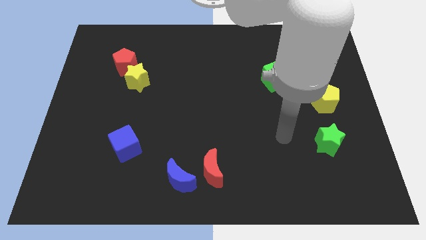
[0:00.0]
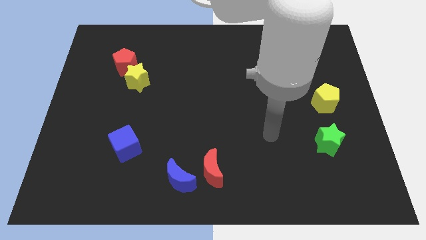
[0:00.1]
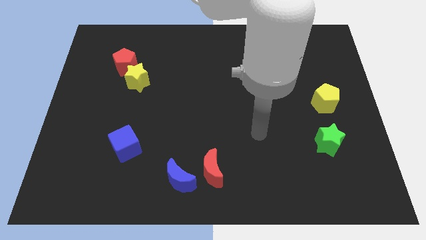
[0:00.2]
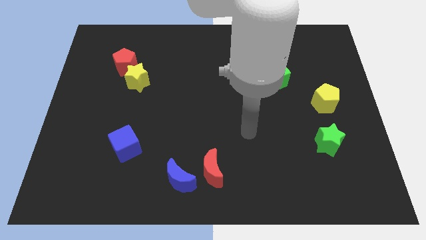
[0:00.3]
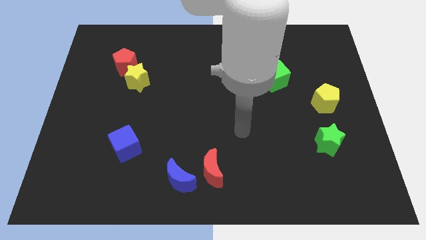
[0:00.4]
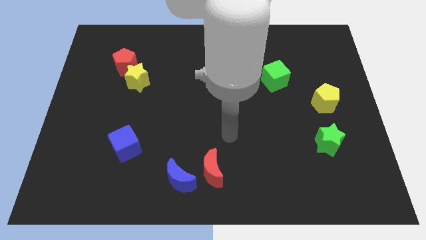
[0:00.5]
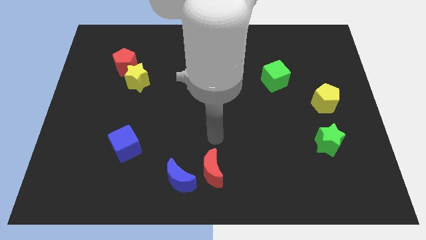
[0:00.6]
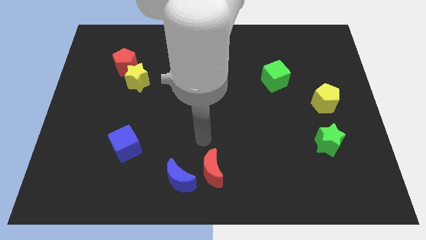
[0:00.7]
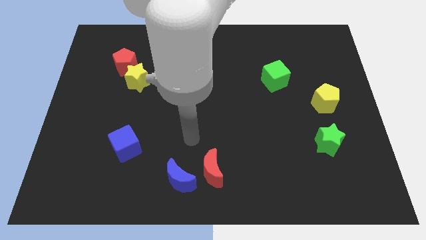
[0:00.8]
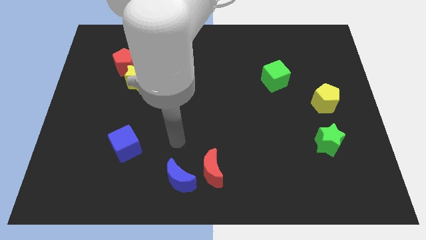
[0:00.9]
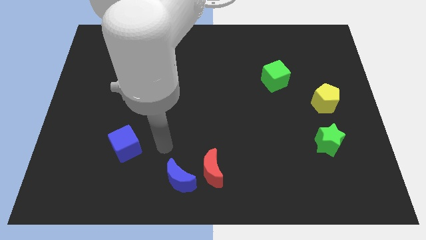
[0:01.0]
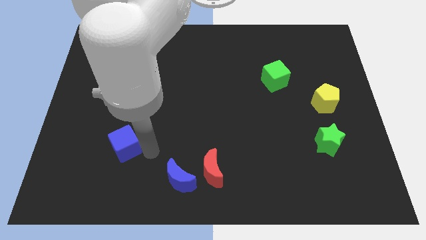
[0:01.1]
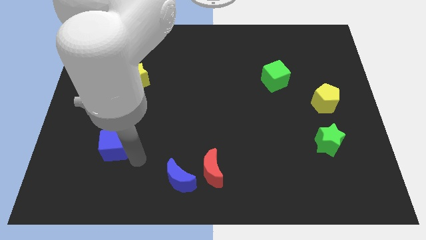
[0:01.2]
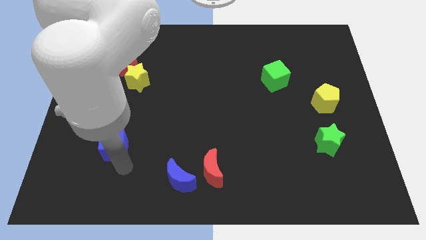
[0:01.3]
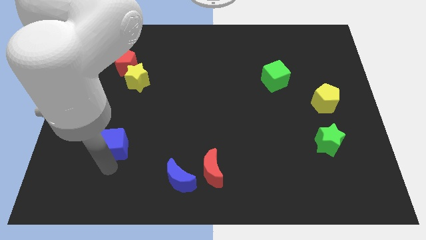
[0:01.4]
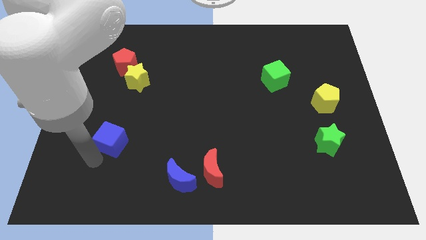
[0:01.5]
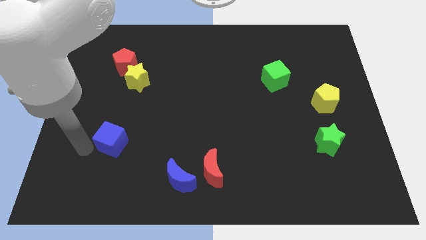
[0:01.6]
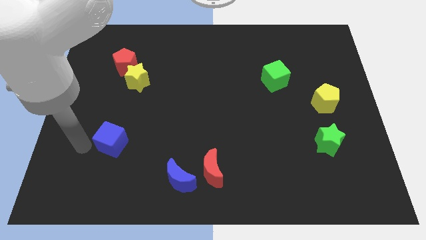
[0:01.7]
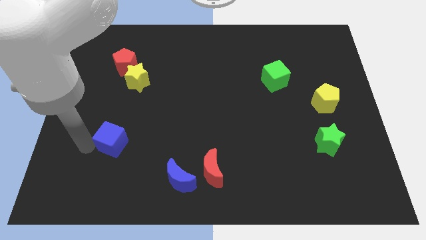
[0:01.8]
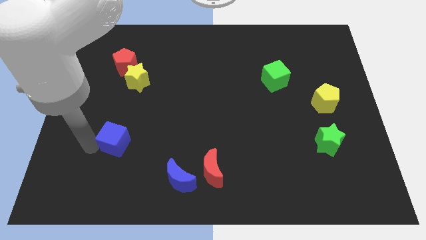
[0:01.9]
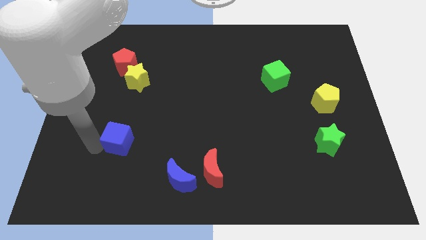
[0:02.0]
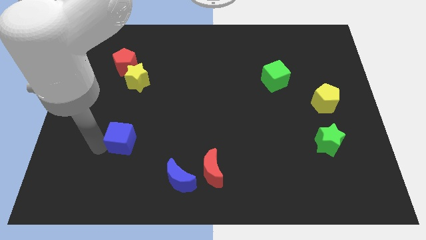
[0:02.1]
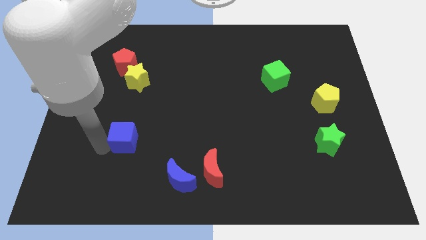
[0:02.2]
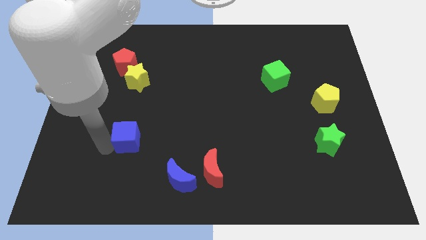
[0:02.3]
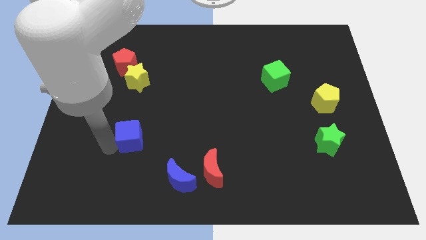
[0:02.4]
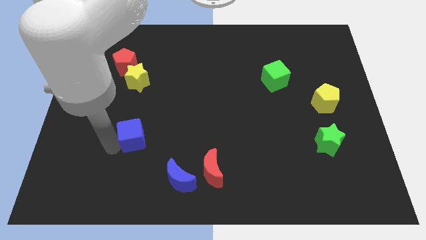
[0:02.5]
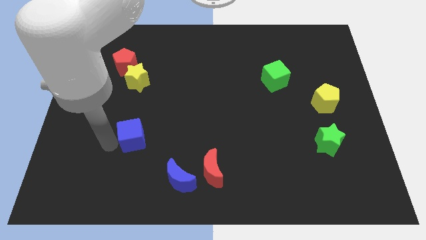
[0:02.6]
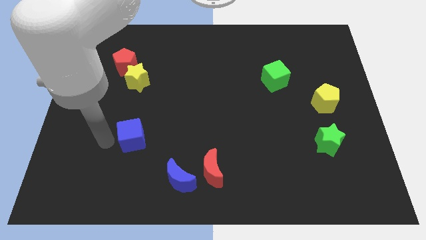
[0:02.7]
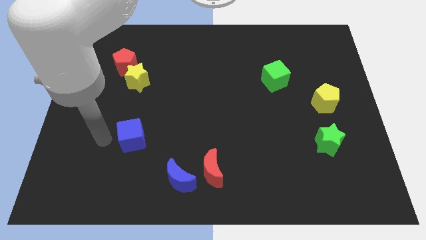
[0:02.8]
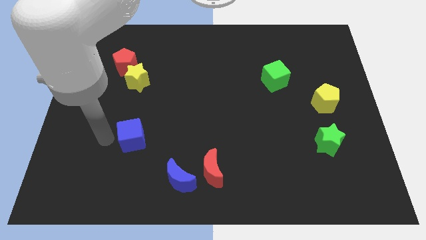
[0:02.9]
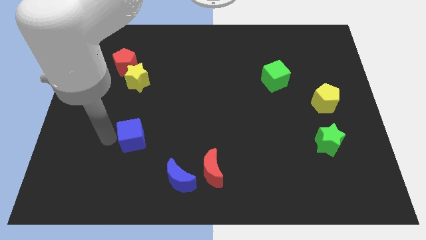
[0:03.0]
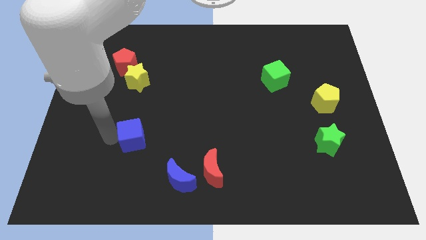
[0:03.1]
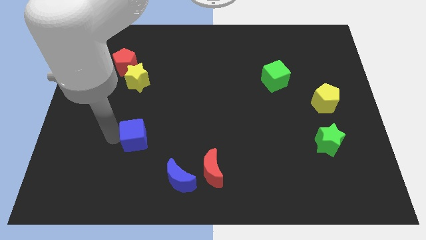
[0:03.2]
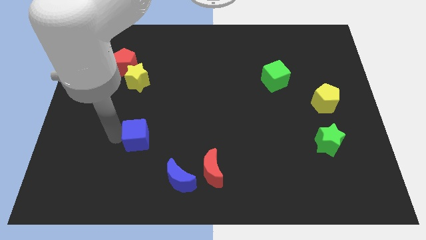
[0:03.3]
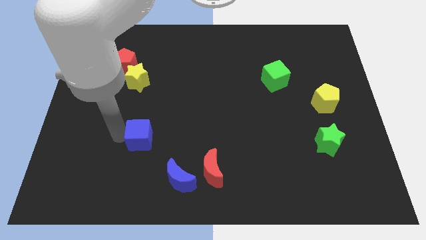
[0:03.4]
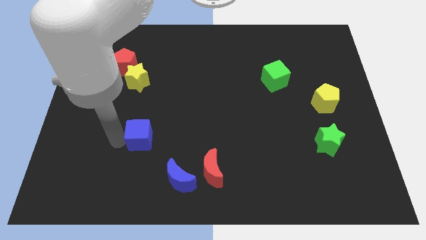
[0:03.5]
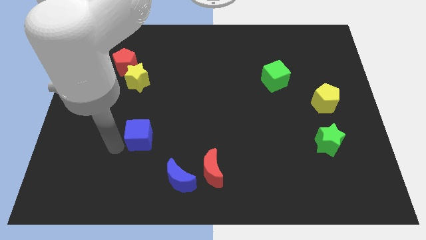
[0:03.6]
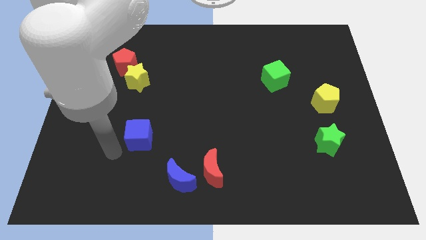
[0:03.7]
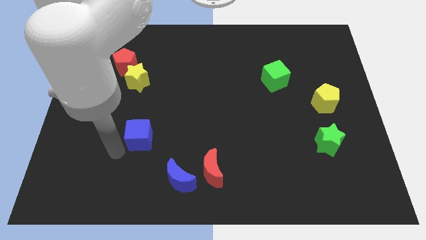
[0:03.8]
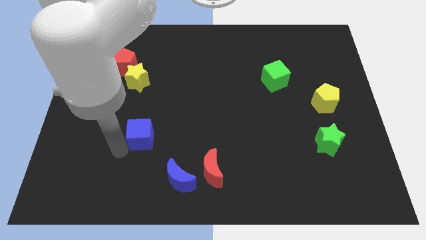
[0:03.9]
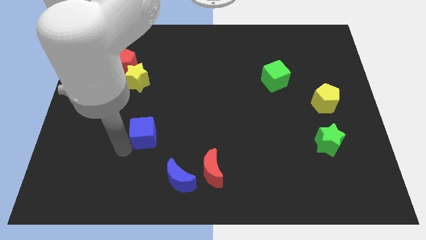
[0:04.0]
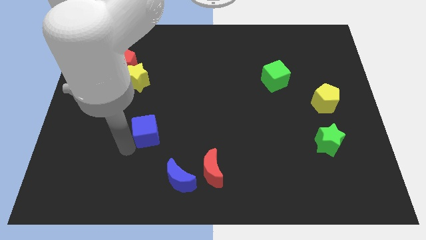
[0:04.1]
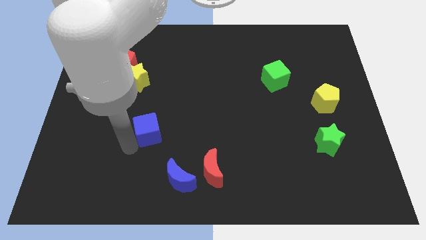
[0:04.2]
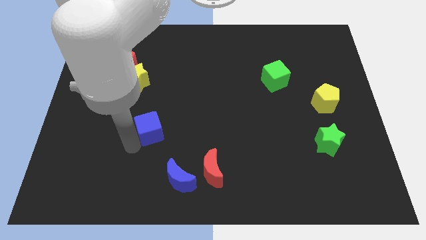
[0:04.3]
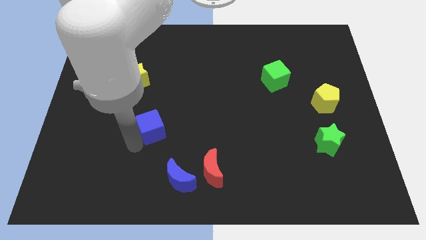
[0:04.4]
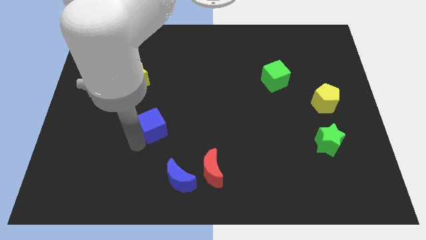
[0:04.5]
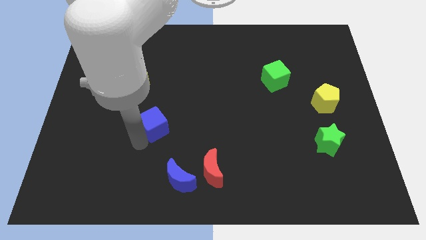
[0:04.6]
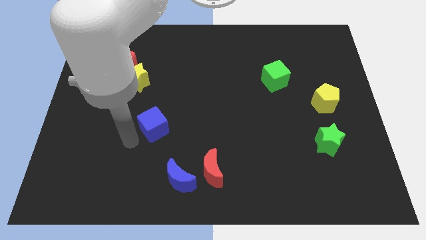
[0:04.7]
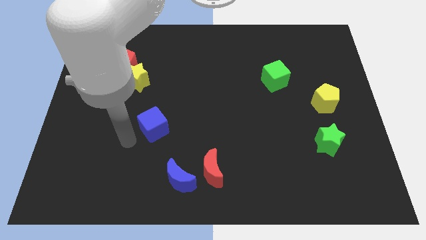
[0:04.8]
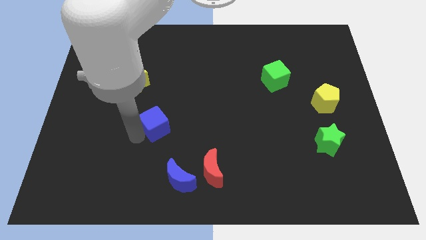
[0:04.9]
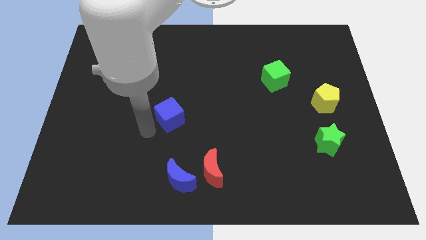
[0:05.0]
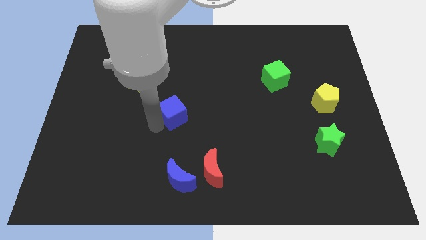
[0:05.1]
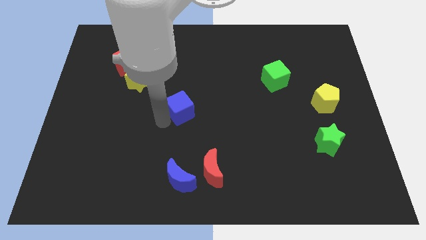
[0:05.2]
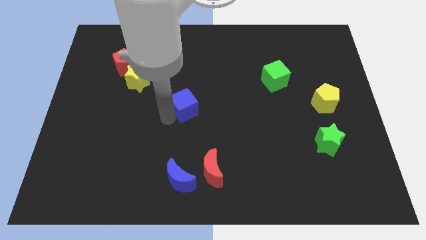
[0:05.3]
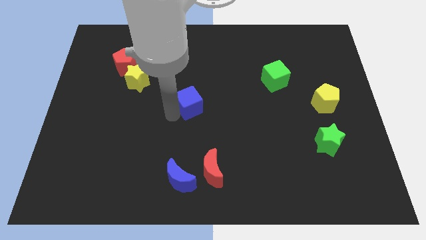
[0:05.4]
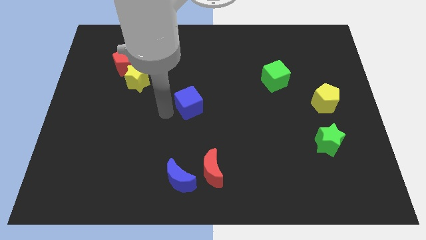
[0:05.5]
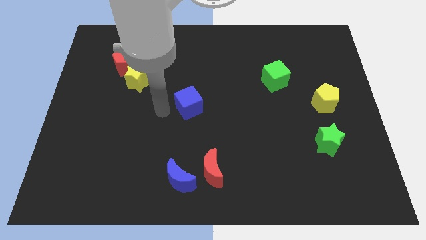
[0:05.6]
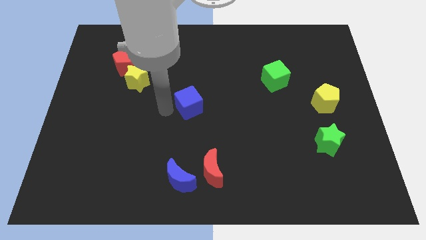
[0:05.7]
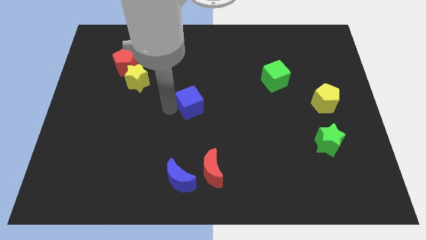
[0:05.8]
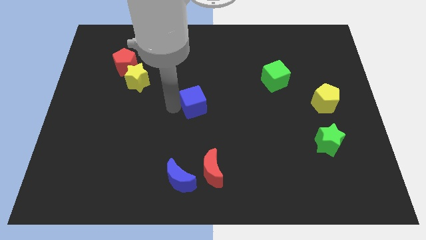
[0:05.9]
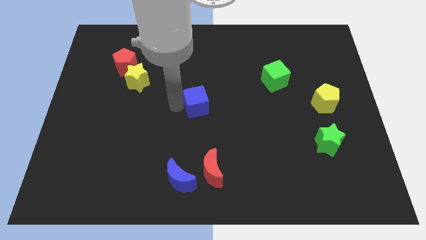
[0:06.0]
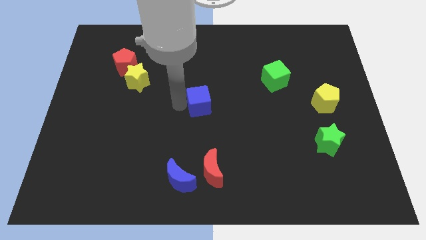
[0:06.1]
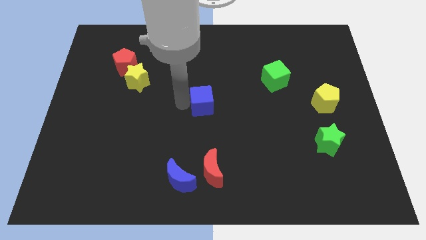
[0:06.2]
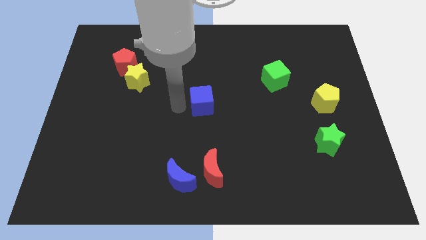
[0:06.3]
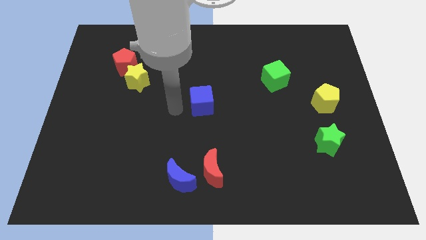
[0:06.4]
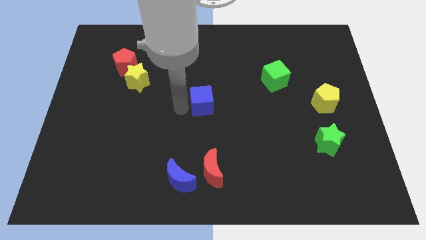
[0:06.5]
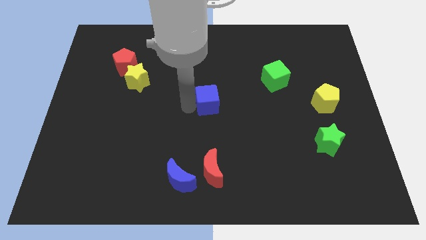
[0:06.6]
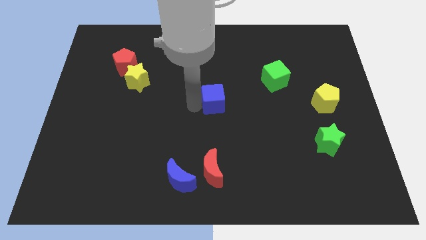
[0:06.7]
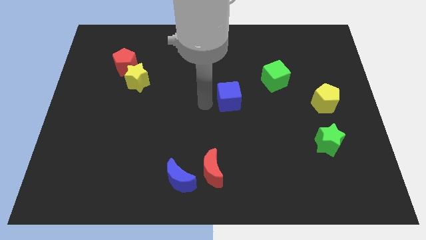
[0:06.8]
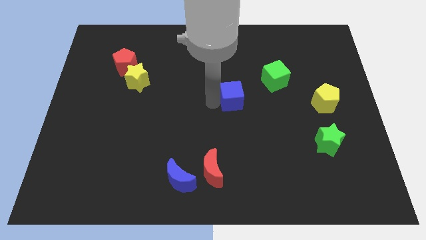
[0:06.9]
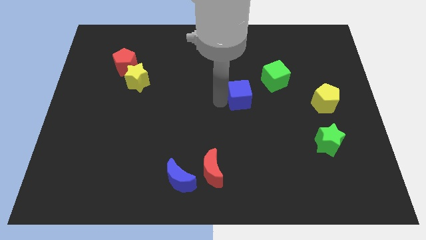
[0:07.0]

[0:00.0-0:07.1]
push the blue cube to the bottom left side of the green cube
